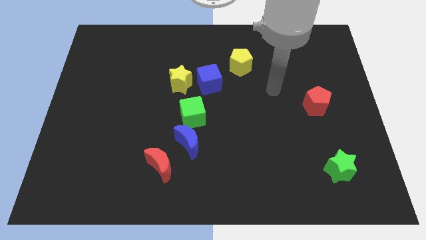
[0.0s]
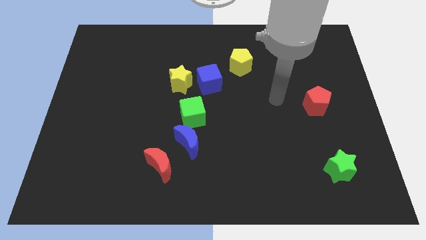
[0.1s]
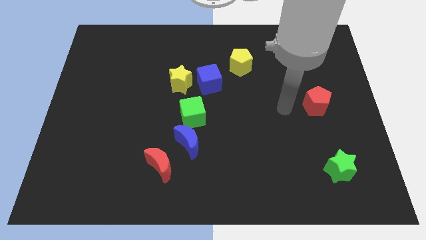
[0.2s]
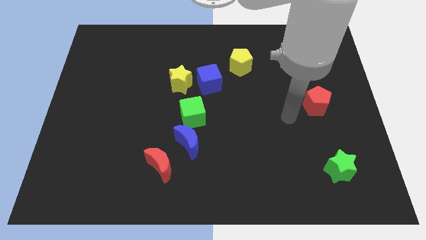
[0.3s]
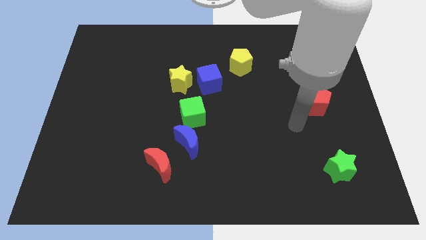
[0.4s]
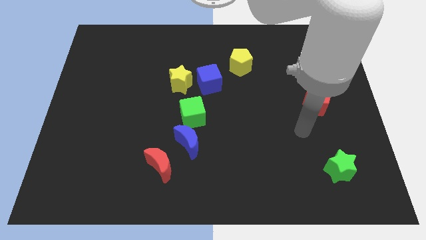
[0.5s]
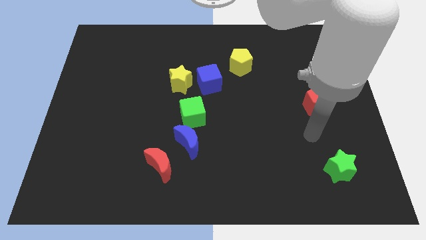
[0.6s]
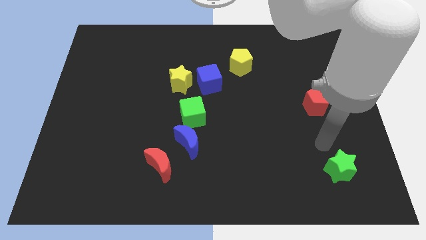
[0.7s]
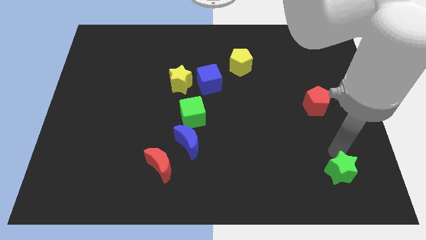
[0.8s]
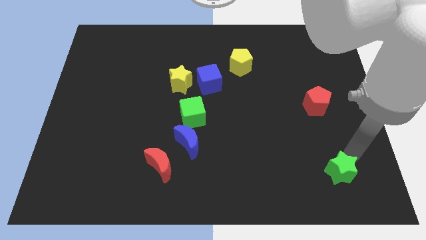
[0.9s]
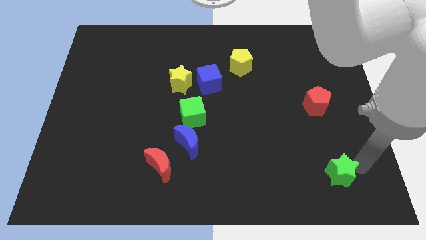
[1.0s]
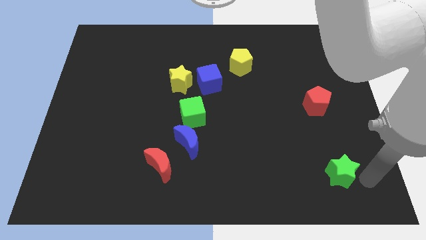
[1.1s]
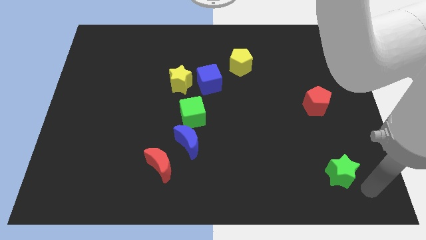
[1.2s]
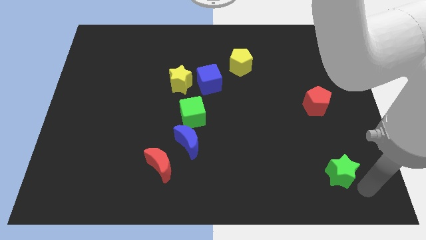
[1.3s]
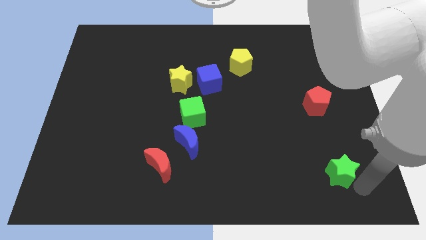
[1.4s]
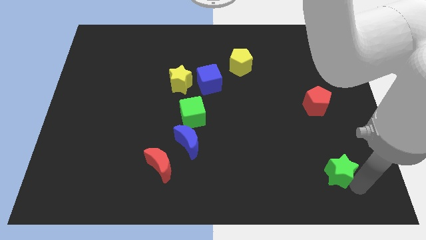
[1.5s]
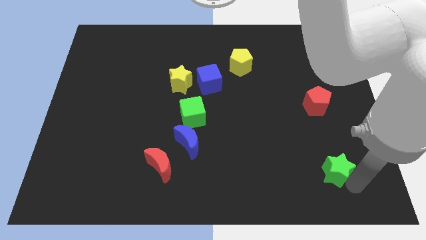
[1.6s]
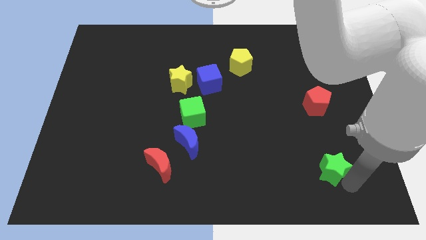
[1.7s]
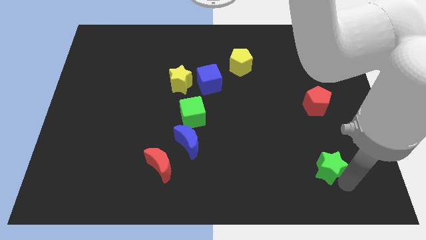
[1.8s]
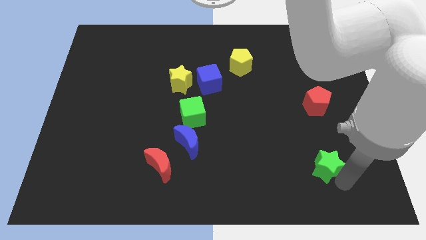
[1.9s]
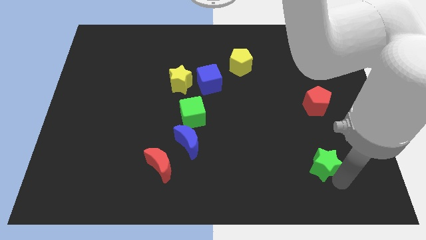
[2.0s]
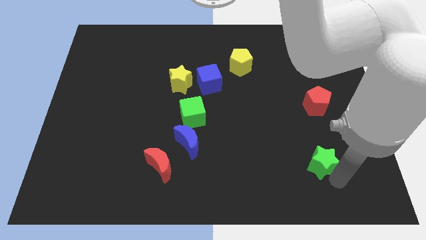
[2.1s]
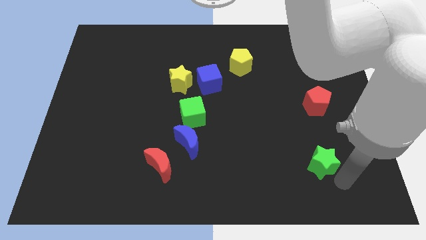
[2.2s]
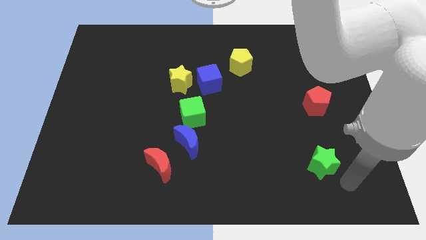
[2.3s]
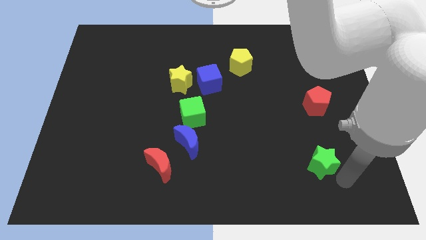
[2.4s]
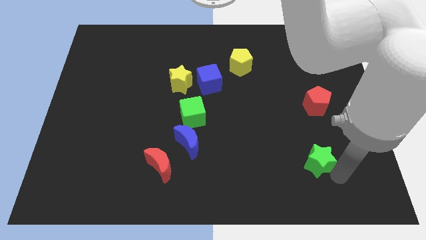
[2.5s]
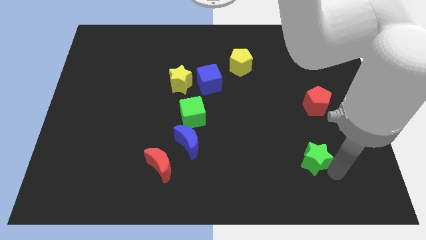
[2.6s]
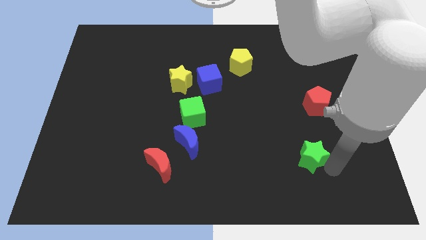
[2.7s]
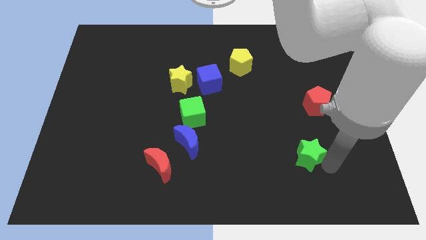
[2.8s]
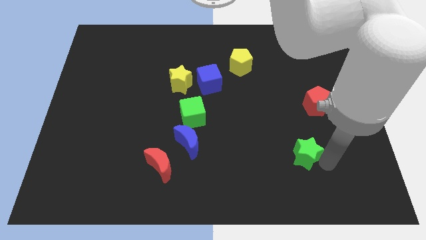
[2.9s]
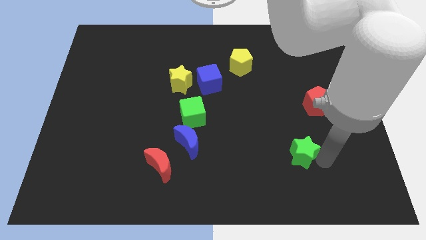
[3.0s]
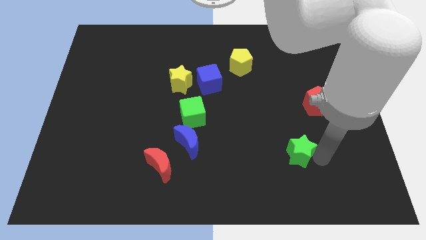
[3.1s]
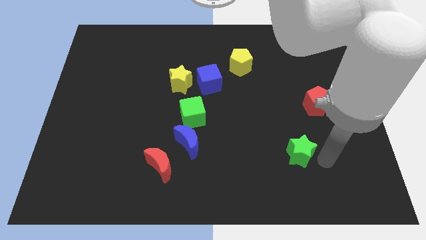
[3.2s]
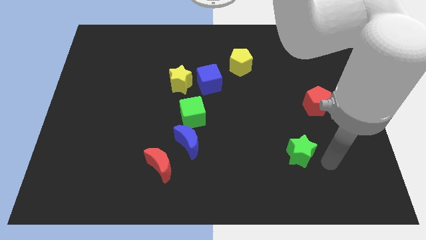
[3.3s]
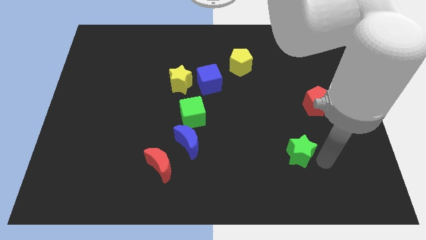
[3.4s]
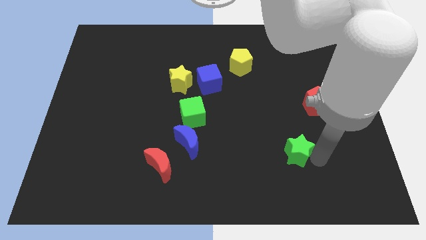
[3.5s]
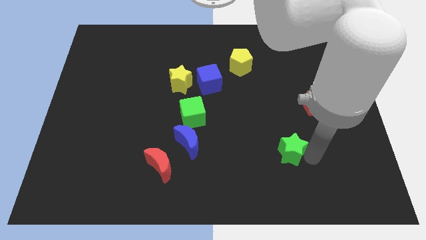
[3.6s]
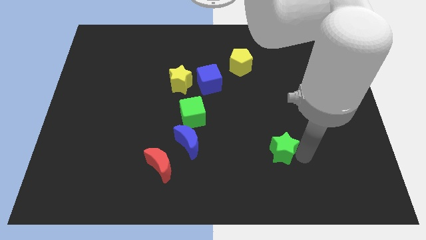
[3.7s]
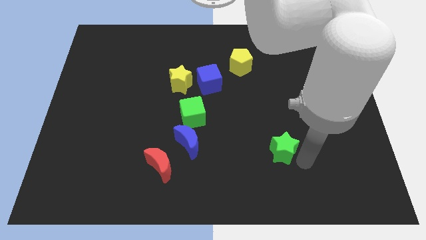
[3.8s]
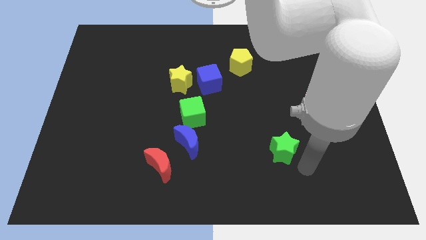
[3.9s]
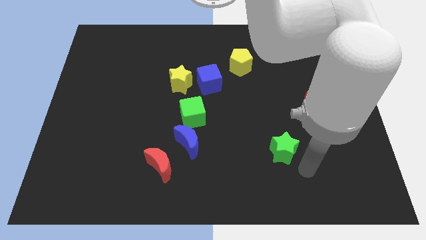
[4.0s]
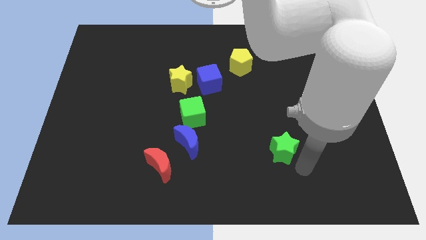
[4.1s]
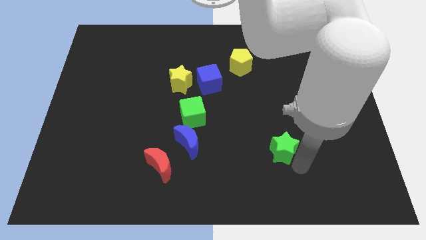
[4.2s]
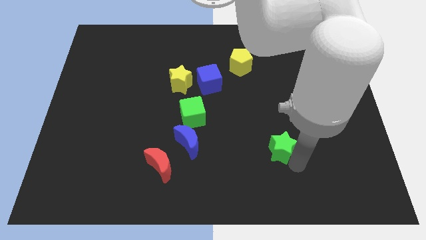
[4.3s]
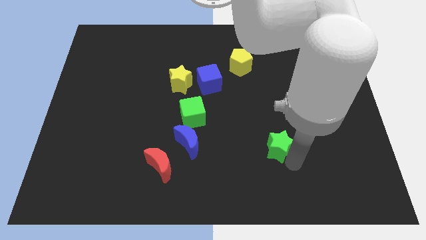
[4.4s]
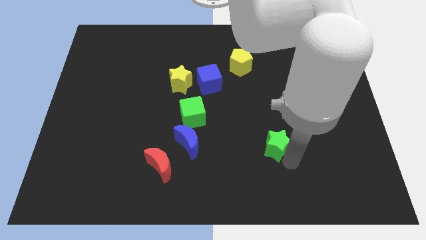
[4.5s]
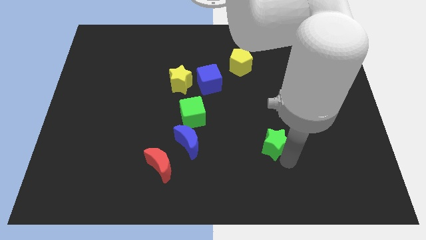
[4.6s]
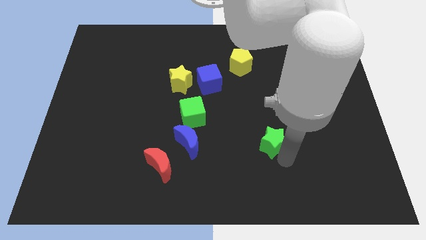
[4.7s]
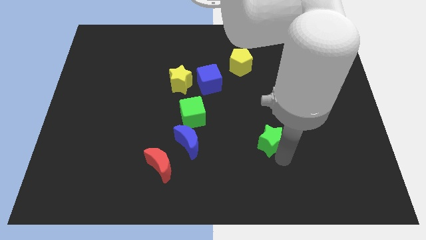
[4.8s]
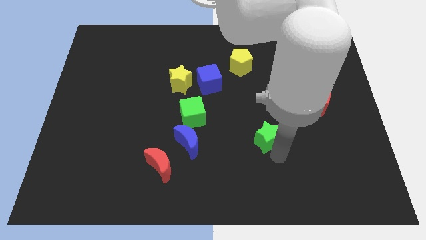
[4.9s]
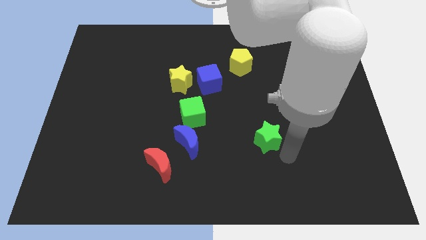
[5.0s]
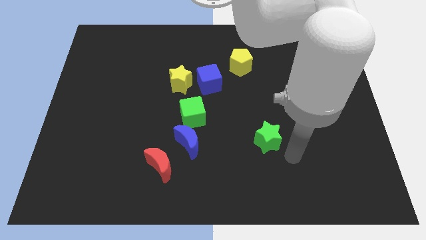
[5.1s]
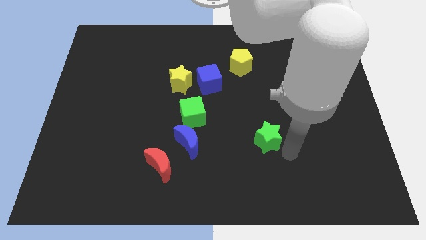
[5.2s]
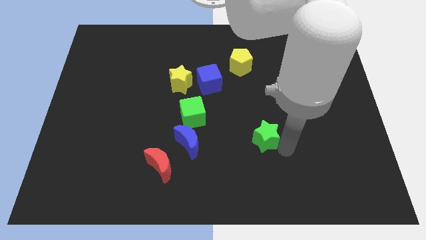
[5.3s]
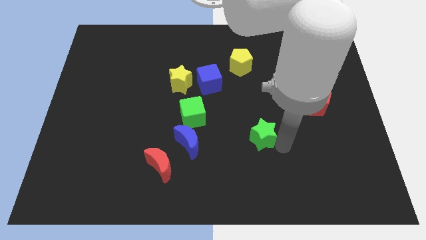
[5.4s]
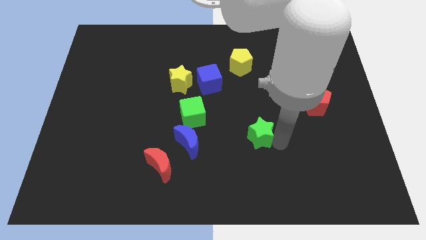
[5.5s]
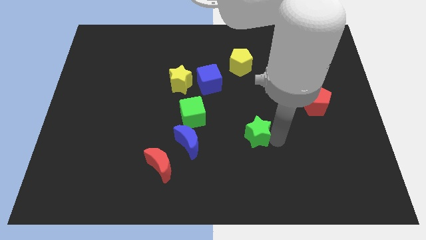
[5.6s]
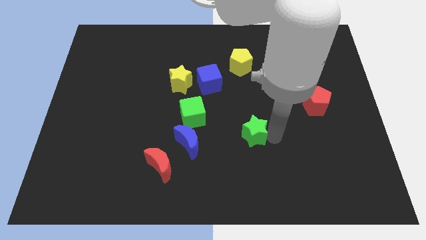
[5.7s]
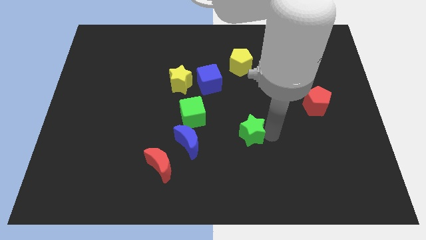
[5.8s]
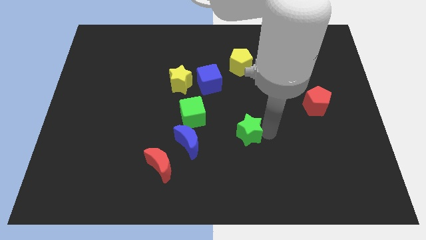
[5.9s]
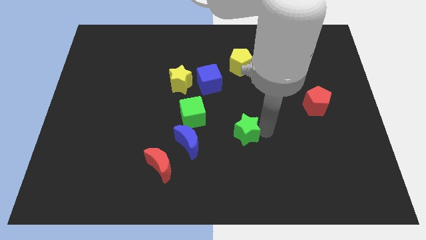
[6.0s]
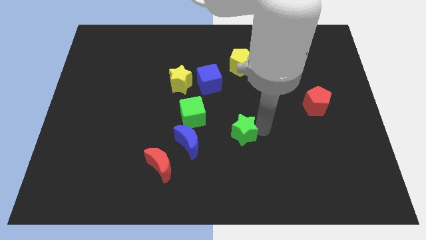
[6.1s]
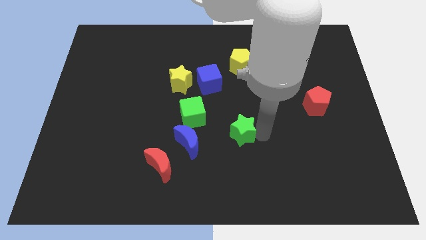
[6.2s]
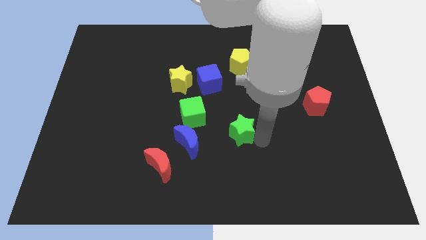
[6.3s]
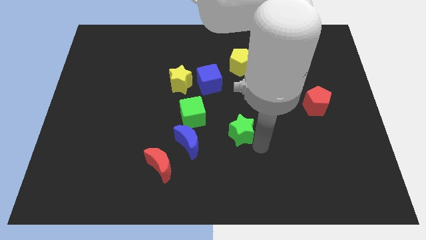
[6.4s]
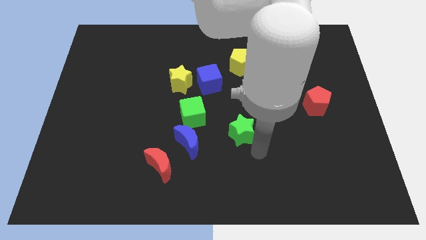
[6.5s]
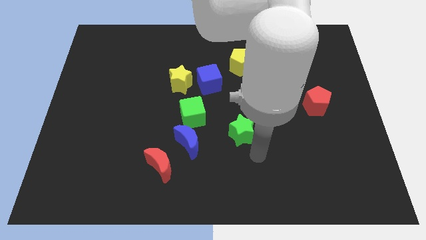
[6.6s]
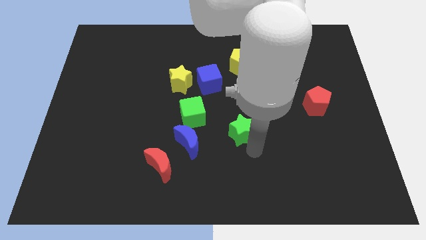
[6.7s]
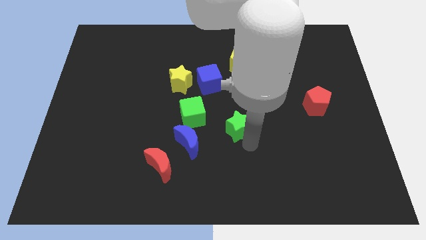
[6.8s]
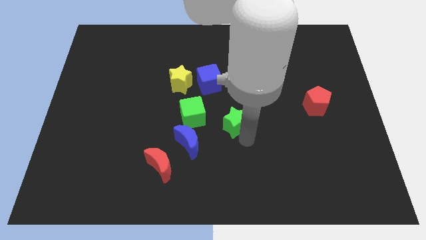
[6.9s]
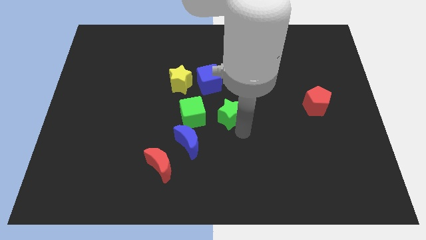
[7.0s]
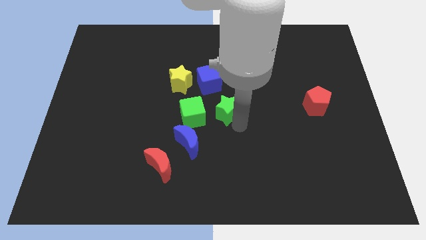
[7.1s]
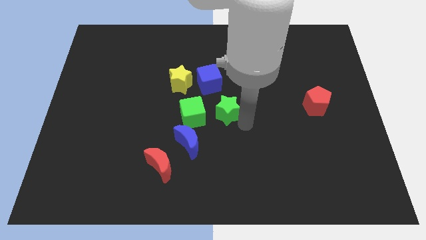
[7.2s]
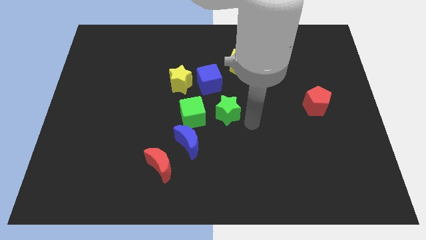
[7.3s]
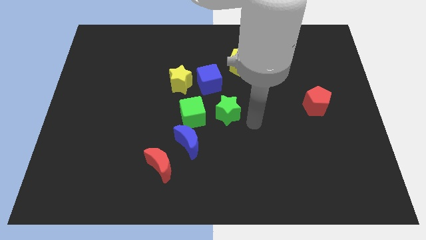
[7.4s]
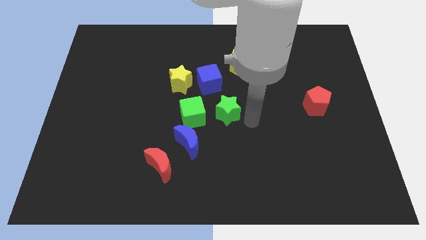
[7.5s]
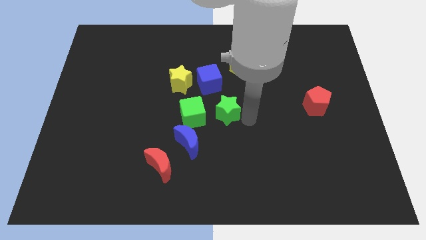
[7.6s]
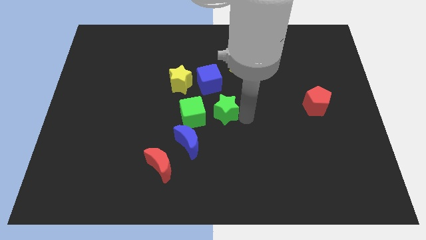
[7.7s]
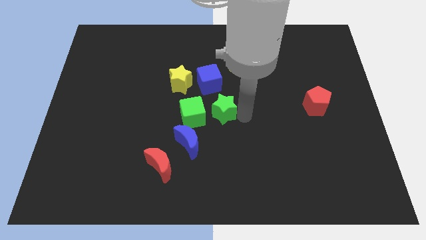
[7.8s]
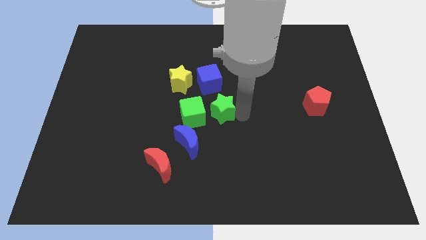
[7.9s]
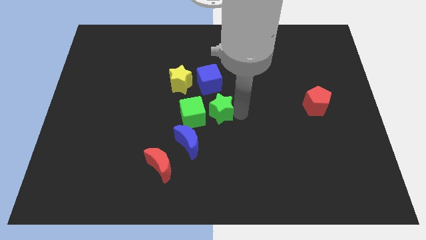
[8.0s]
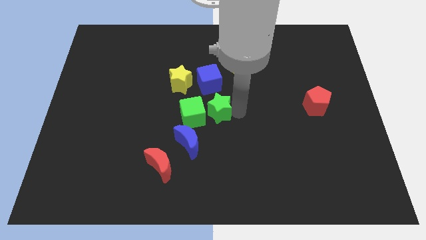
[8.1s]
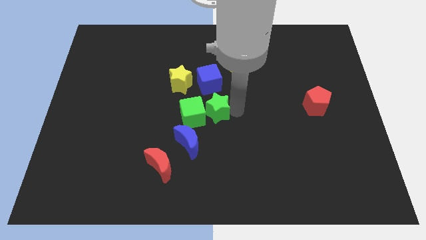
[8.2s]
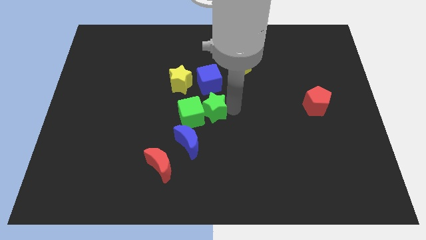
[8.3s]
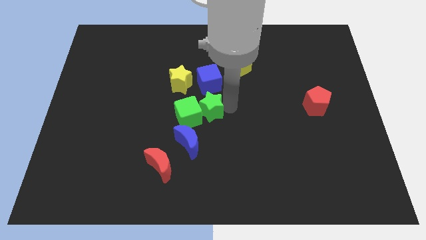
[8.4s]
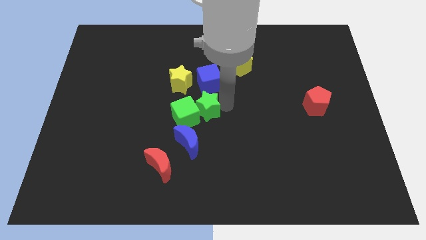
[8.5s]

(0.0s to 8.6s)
move the green star above the blue moon
